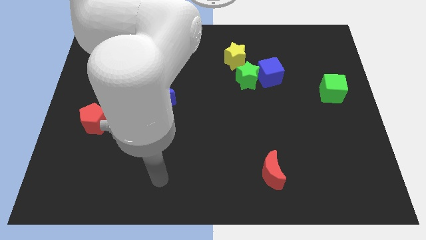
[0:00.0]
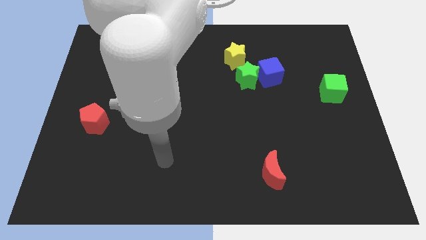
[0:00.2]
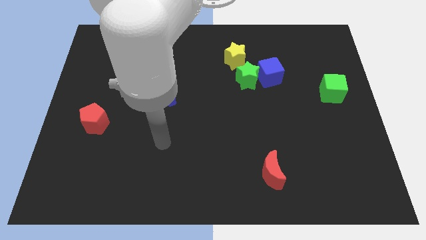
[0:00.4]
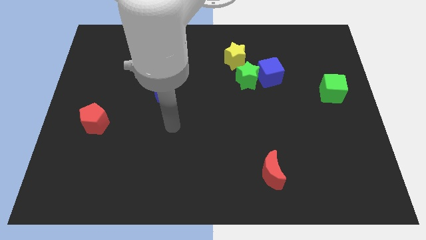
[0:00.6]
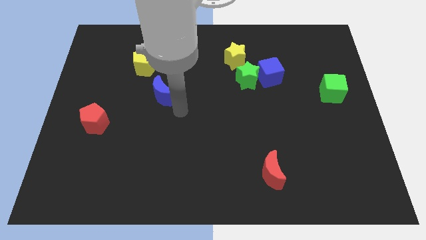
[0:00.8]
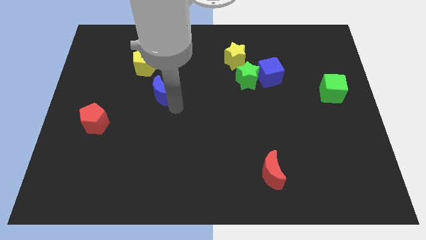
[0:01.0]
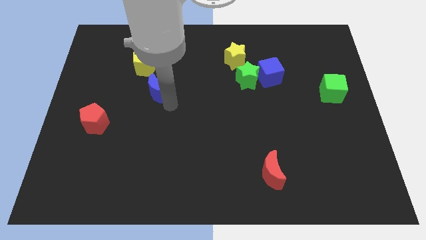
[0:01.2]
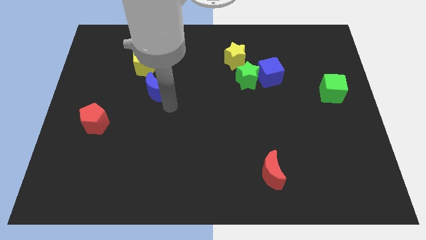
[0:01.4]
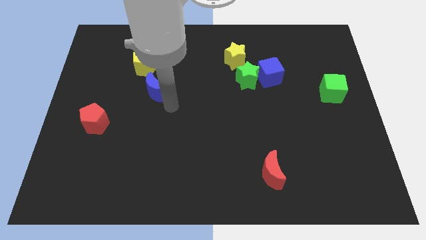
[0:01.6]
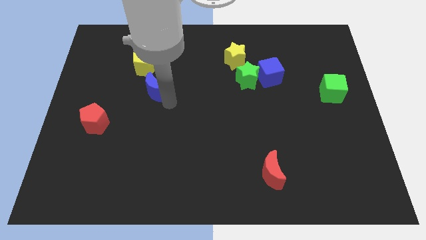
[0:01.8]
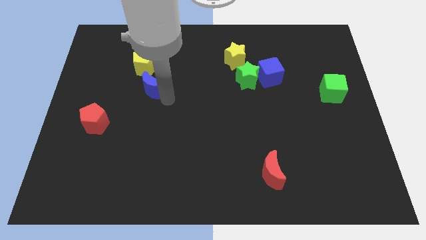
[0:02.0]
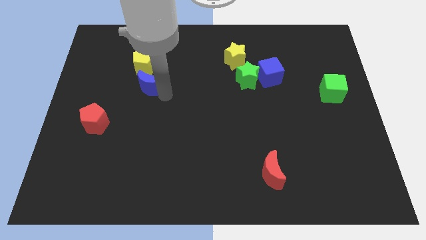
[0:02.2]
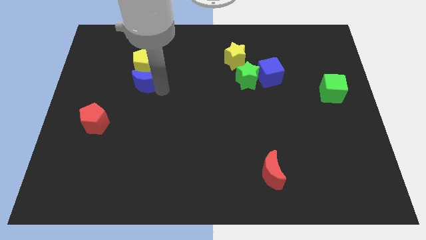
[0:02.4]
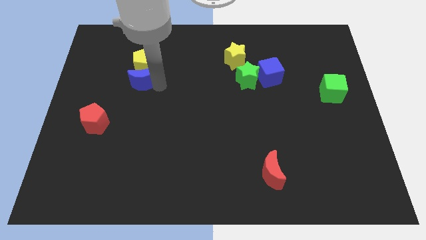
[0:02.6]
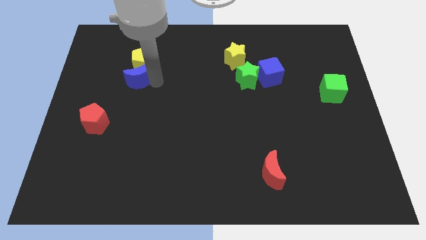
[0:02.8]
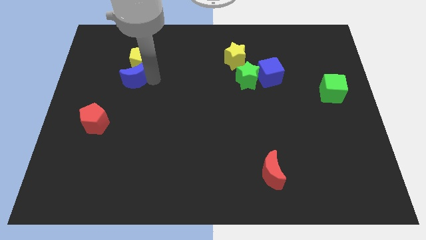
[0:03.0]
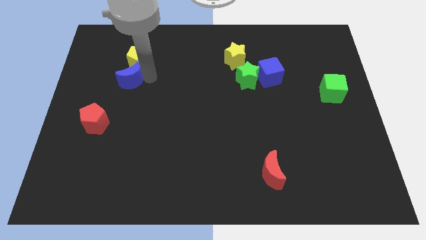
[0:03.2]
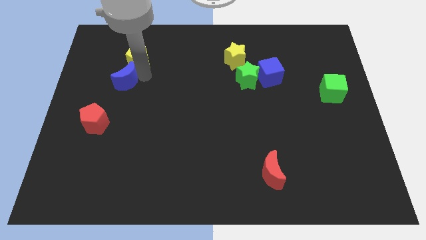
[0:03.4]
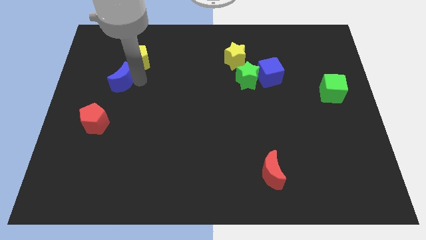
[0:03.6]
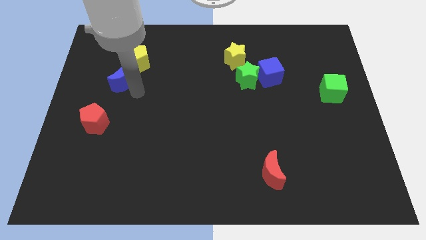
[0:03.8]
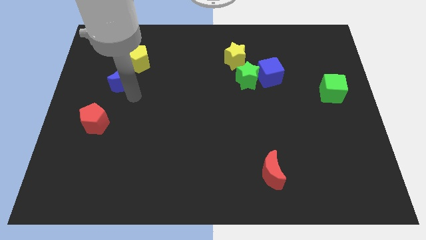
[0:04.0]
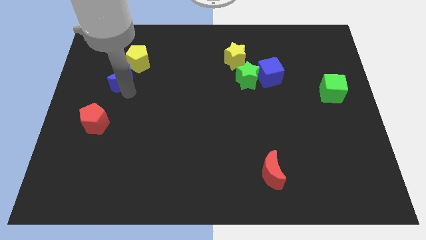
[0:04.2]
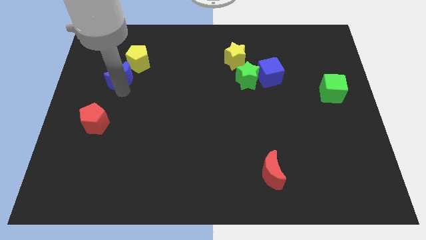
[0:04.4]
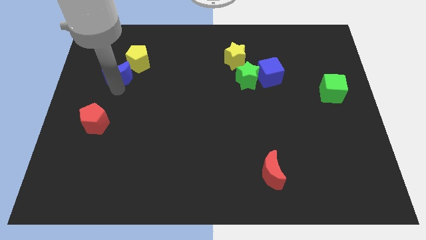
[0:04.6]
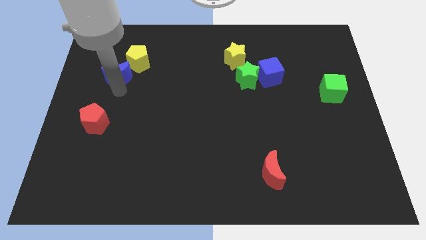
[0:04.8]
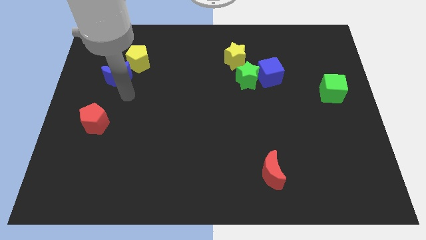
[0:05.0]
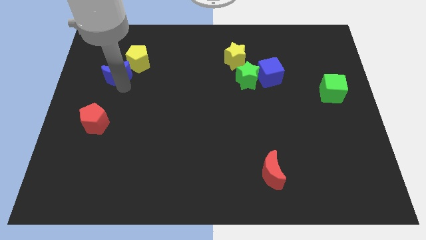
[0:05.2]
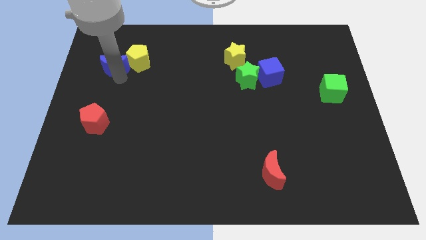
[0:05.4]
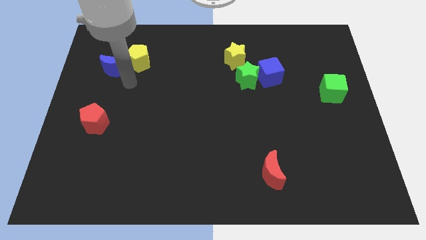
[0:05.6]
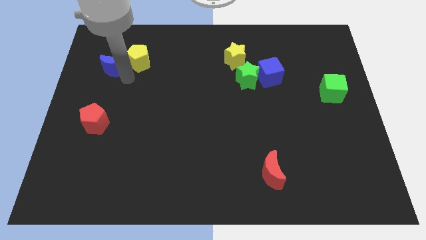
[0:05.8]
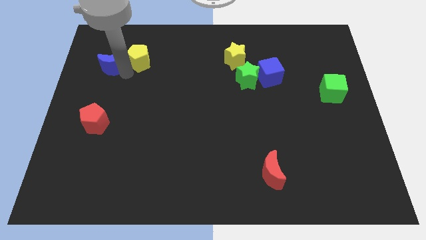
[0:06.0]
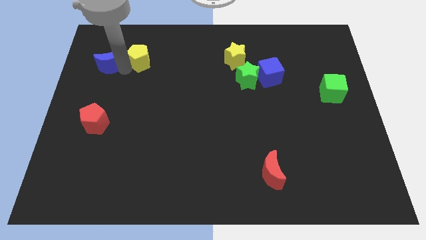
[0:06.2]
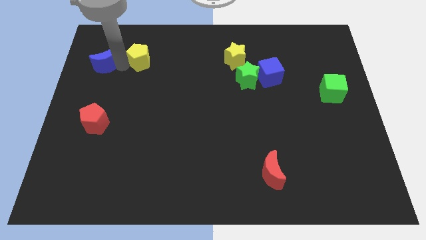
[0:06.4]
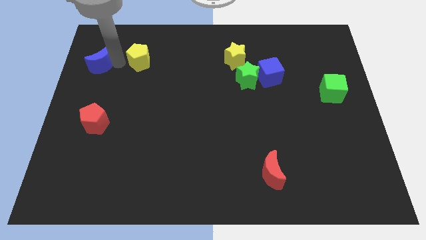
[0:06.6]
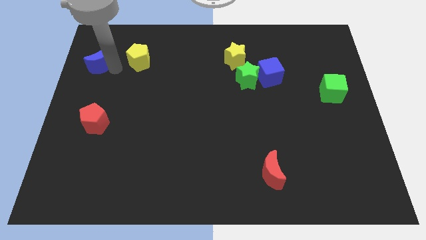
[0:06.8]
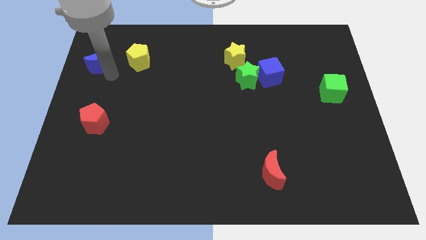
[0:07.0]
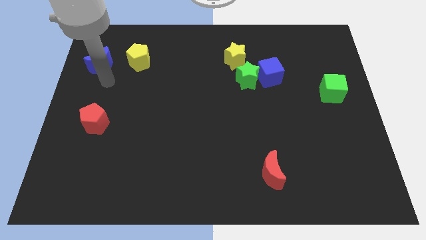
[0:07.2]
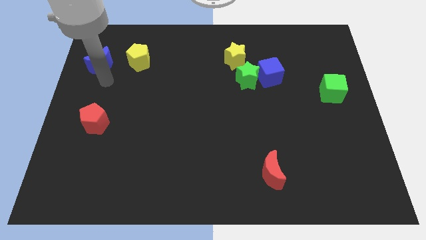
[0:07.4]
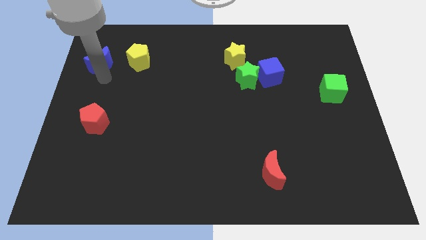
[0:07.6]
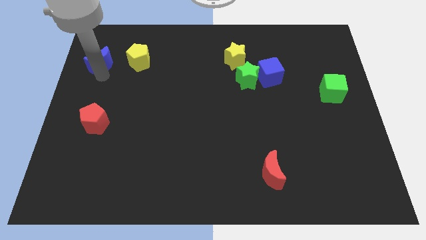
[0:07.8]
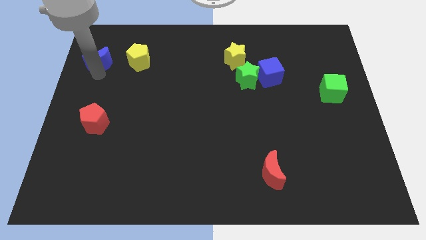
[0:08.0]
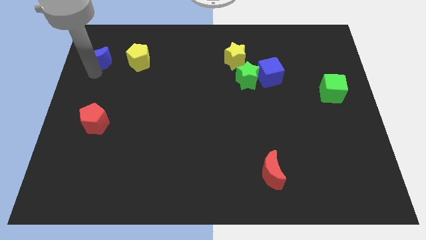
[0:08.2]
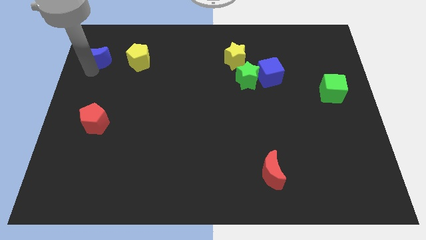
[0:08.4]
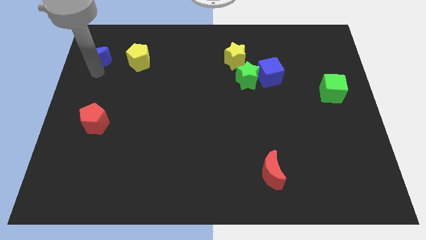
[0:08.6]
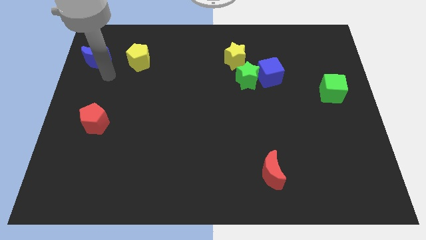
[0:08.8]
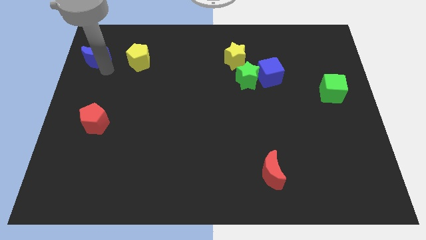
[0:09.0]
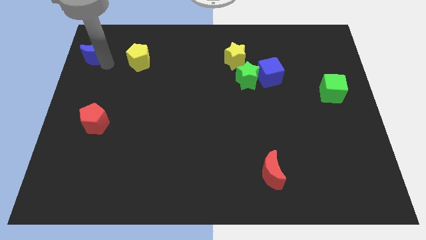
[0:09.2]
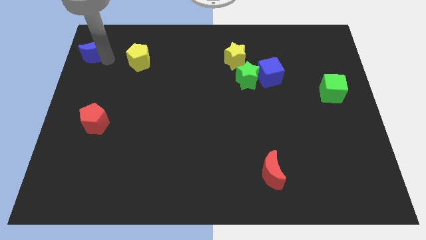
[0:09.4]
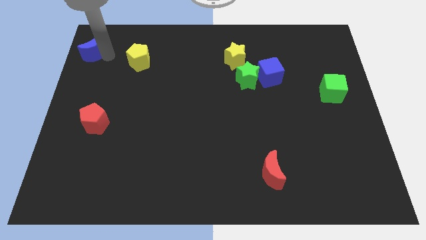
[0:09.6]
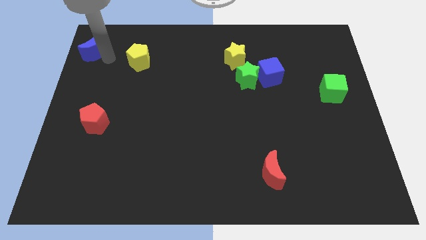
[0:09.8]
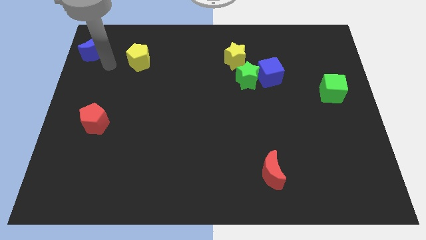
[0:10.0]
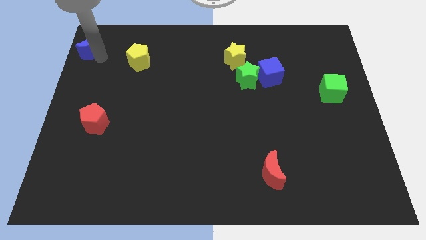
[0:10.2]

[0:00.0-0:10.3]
push the blue moon to the top left

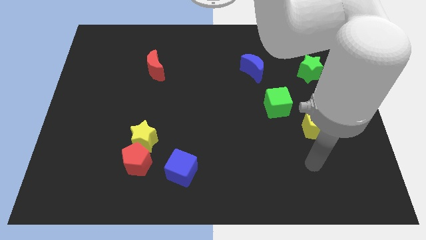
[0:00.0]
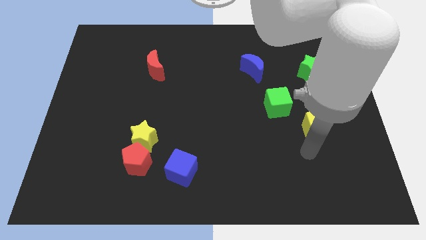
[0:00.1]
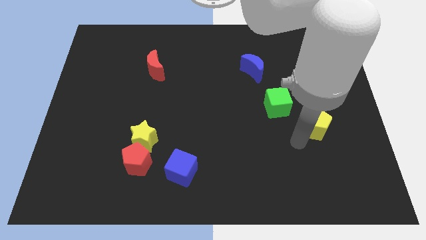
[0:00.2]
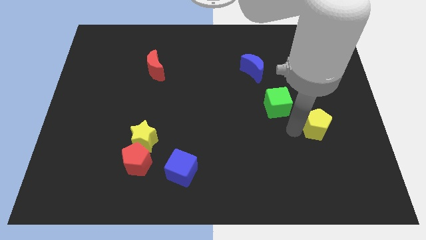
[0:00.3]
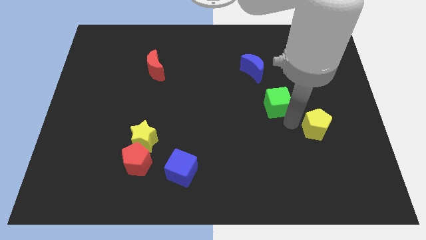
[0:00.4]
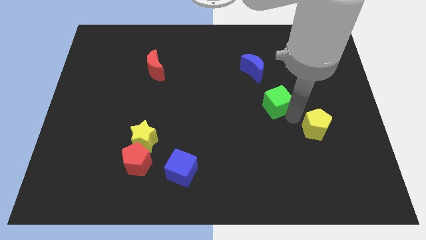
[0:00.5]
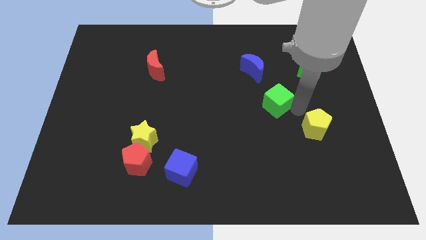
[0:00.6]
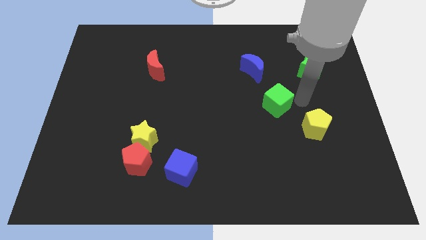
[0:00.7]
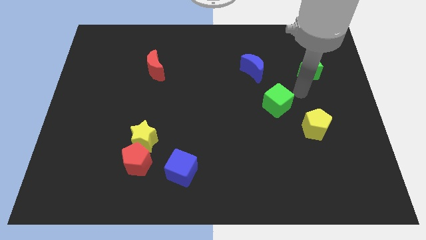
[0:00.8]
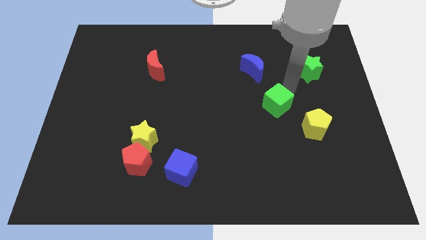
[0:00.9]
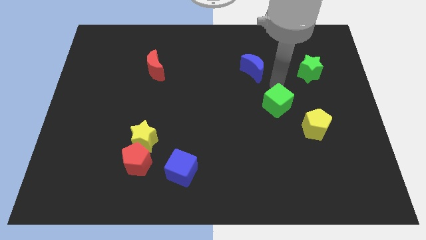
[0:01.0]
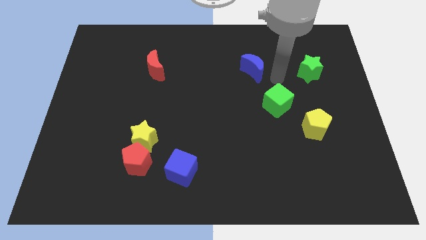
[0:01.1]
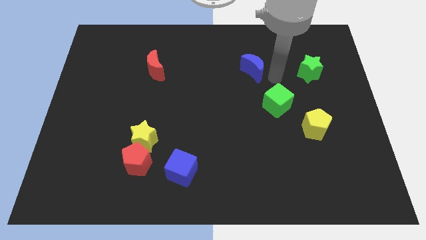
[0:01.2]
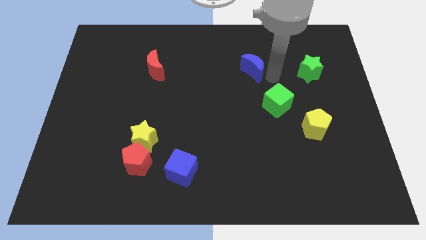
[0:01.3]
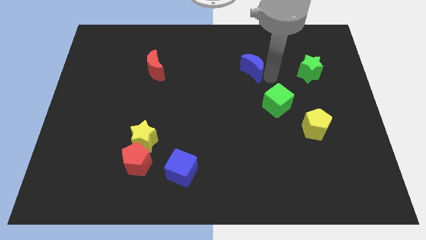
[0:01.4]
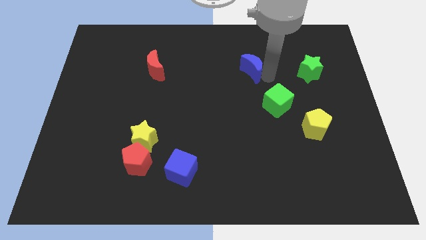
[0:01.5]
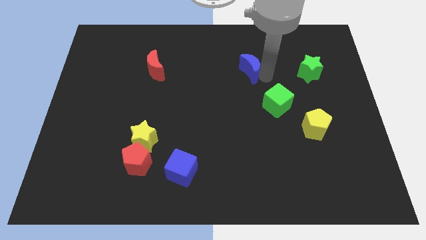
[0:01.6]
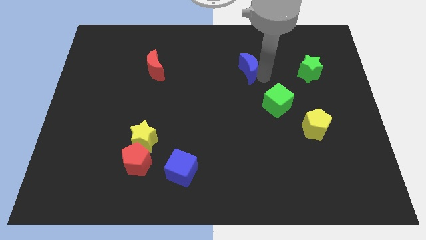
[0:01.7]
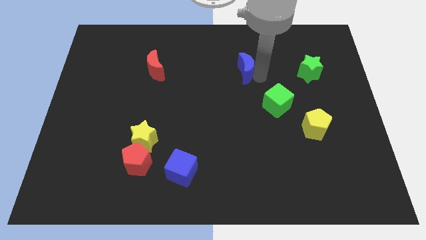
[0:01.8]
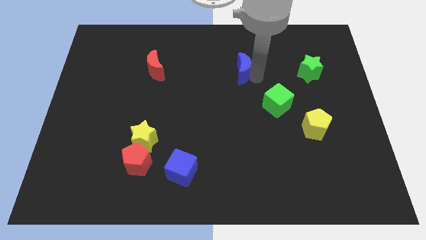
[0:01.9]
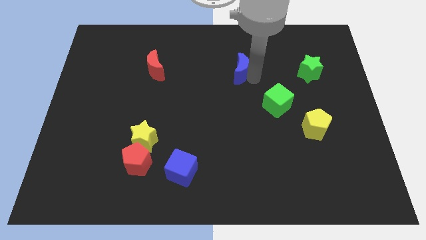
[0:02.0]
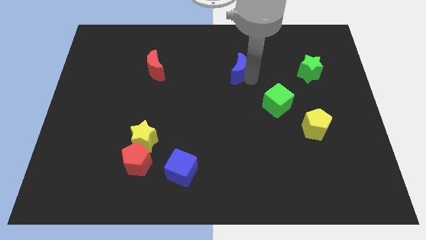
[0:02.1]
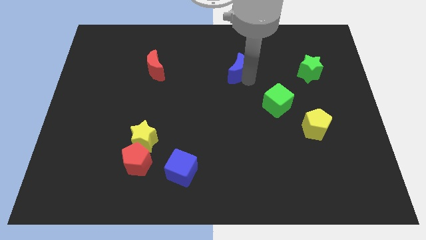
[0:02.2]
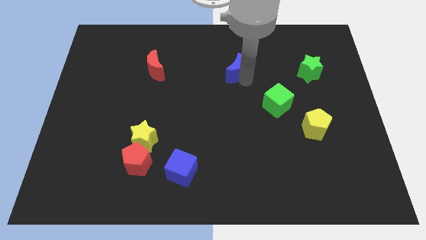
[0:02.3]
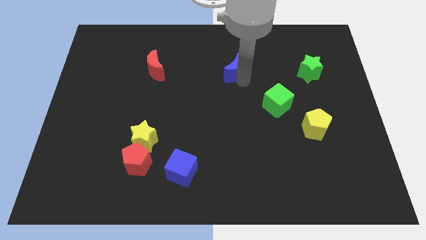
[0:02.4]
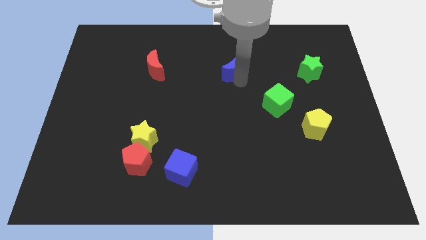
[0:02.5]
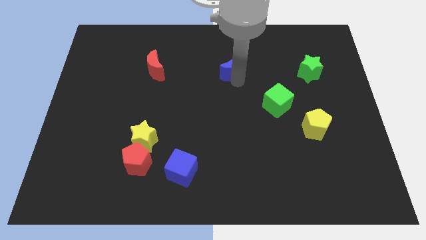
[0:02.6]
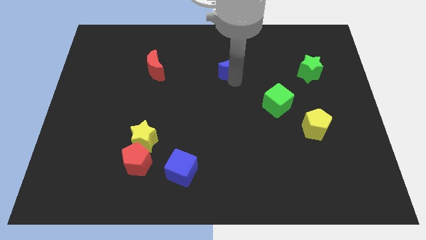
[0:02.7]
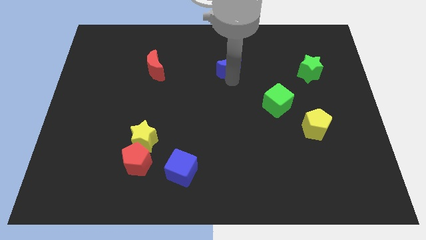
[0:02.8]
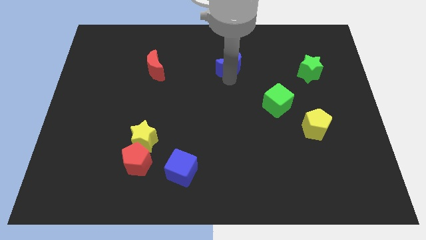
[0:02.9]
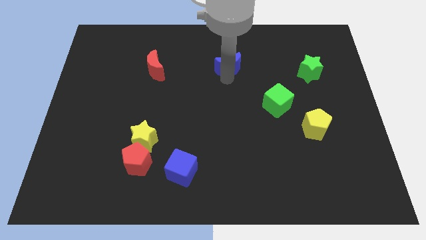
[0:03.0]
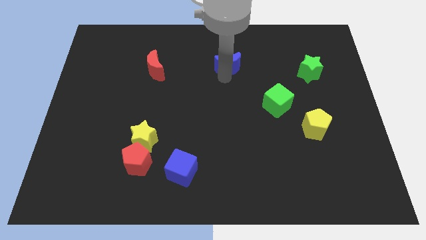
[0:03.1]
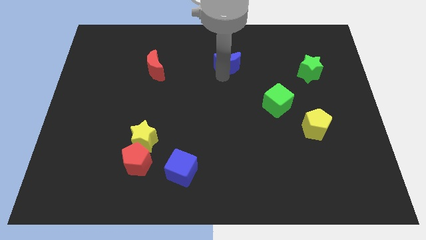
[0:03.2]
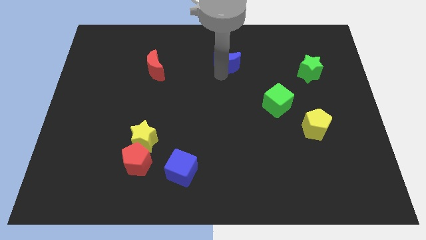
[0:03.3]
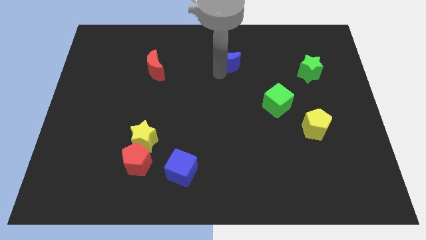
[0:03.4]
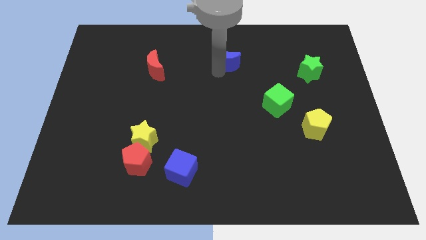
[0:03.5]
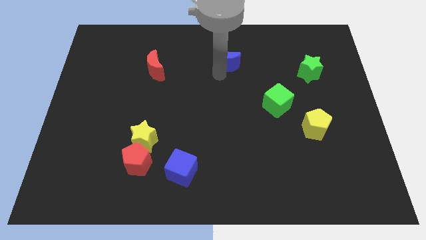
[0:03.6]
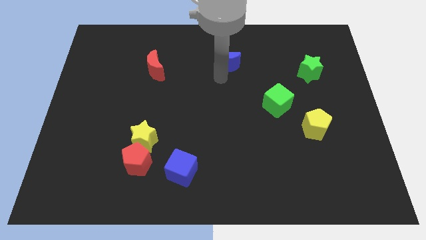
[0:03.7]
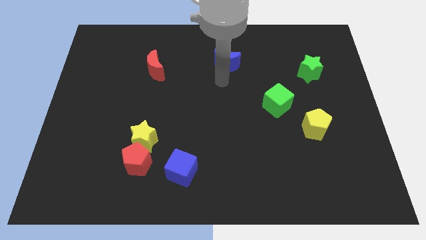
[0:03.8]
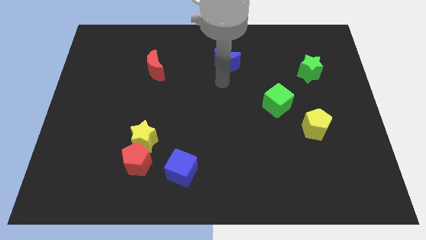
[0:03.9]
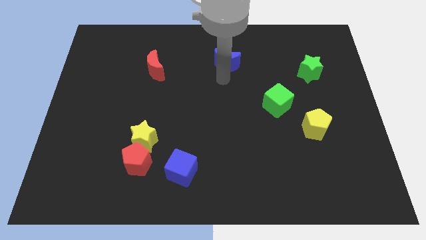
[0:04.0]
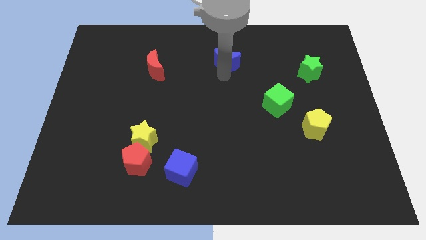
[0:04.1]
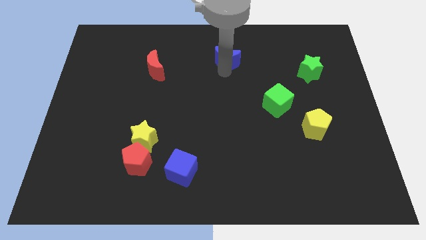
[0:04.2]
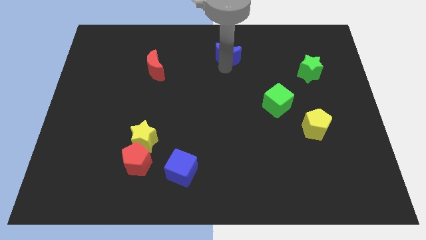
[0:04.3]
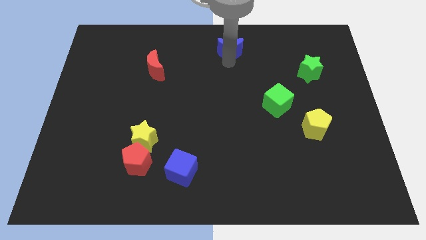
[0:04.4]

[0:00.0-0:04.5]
slide the blue moon to the top side
